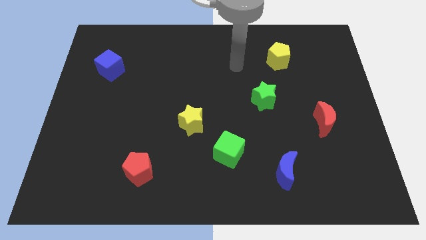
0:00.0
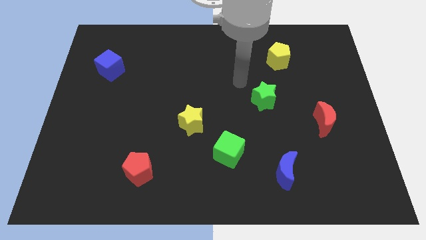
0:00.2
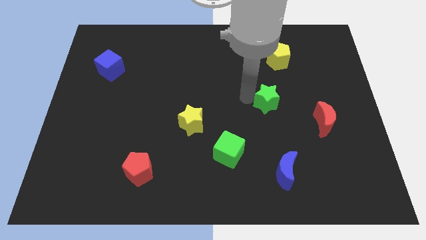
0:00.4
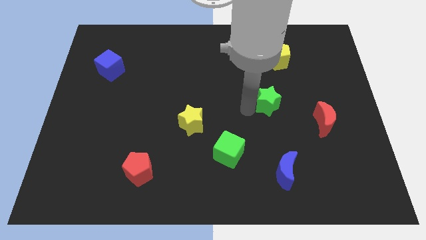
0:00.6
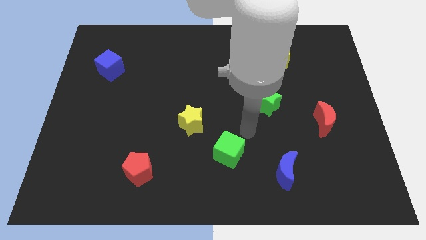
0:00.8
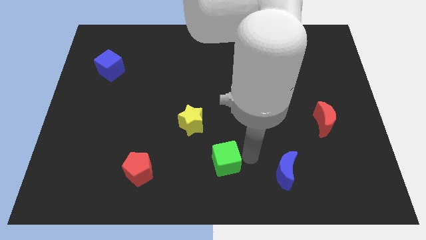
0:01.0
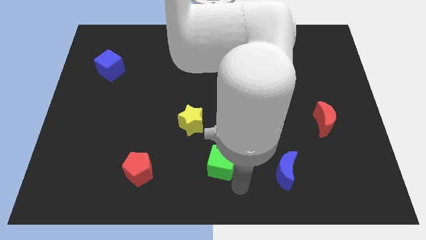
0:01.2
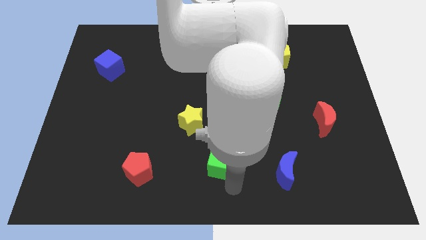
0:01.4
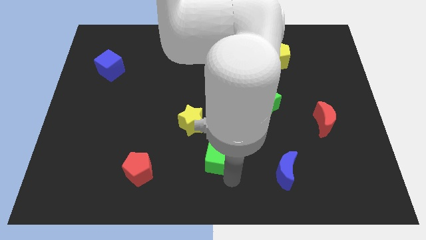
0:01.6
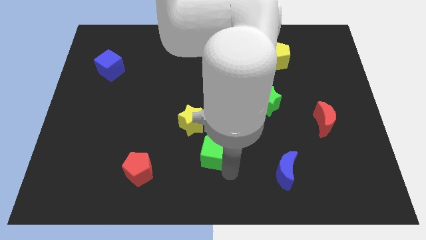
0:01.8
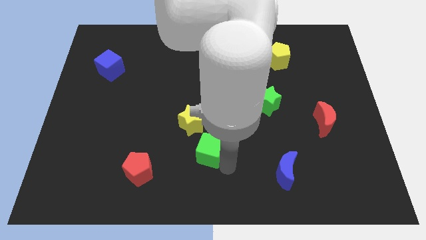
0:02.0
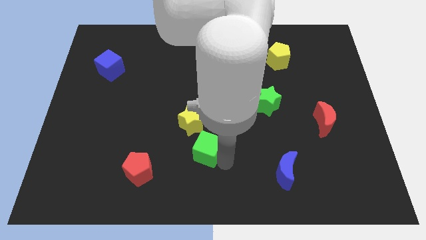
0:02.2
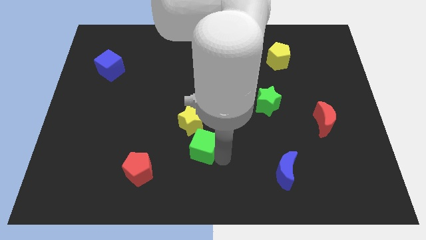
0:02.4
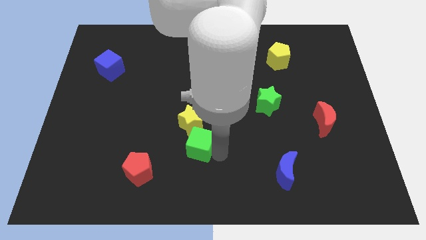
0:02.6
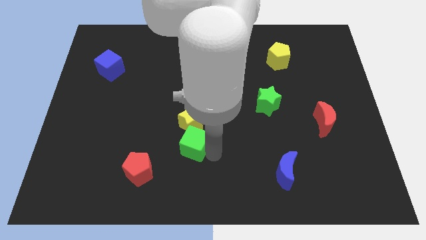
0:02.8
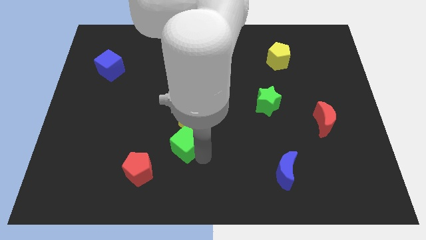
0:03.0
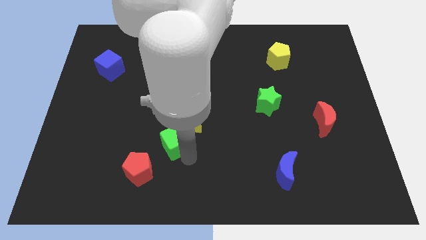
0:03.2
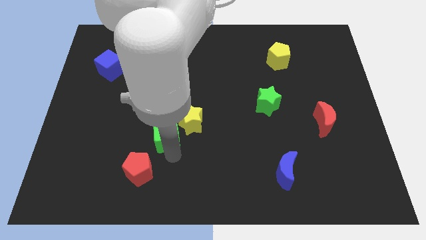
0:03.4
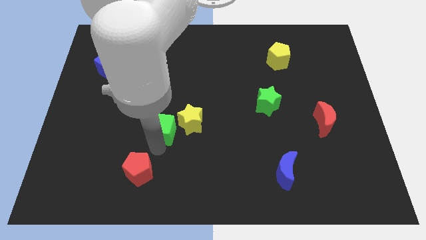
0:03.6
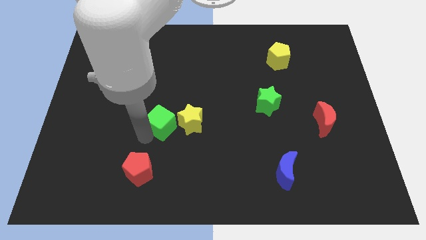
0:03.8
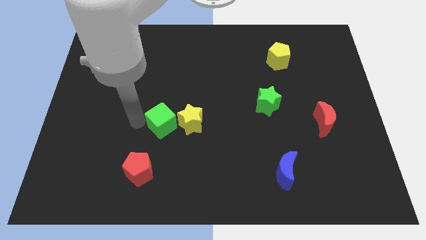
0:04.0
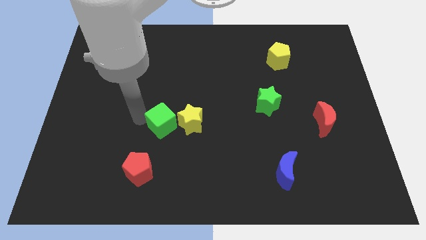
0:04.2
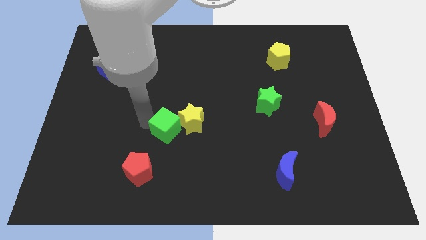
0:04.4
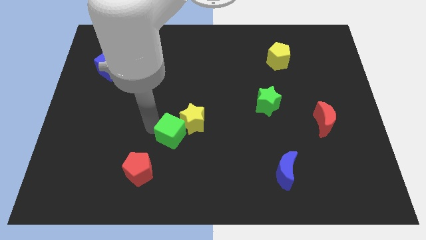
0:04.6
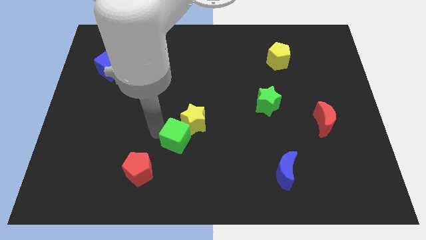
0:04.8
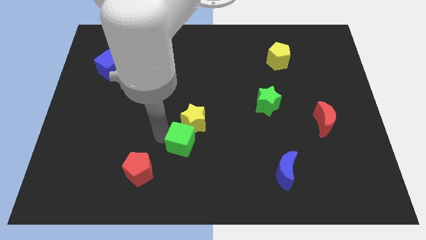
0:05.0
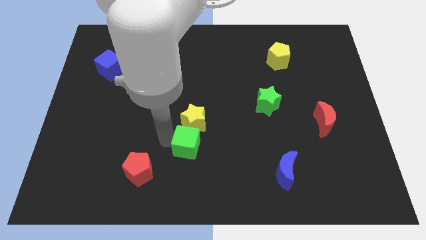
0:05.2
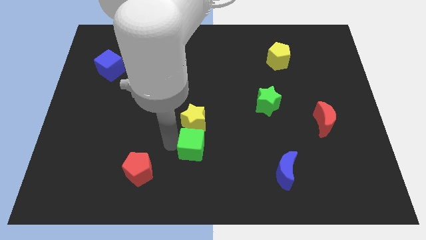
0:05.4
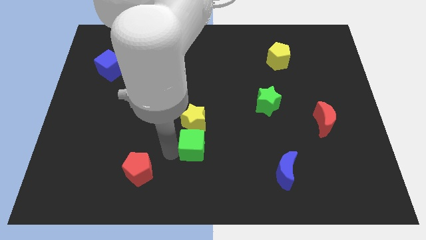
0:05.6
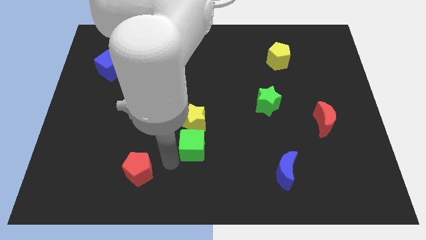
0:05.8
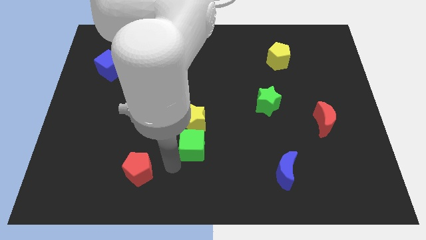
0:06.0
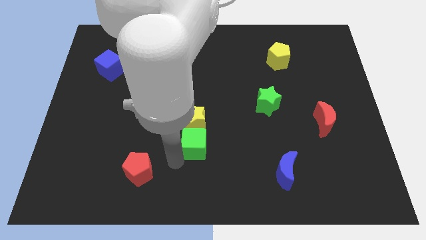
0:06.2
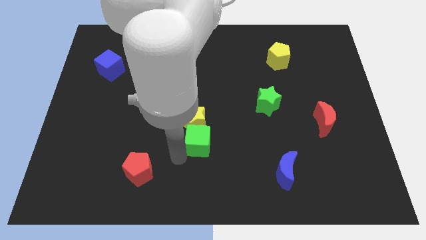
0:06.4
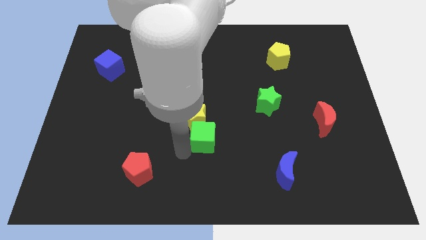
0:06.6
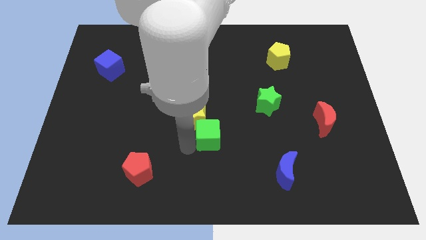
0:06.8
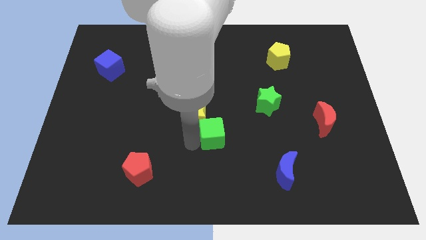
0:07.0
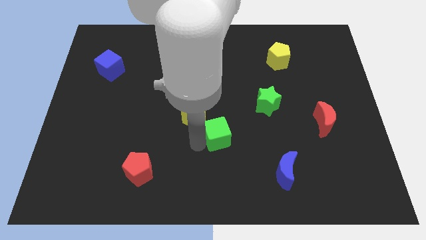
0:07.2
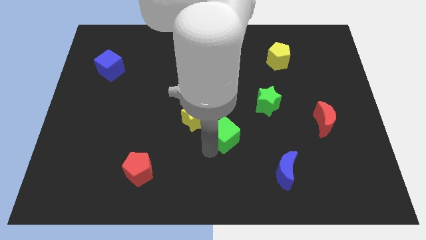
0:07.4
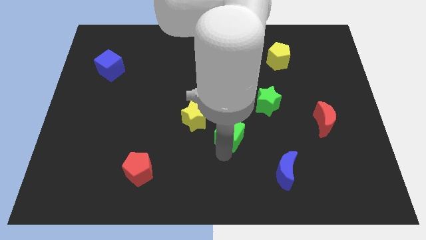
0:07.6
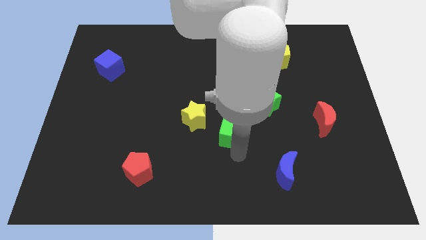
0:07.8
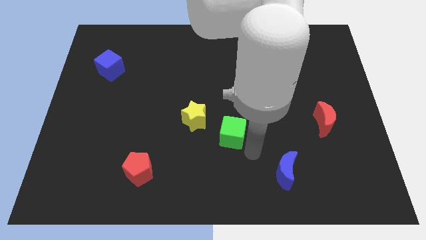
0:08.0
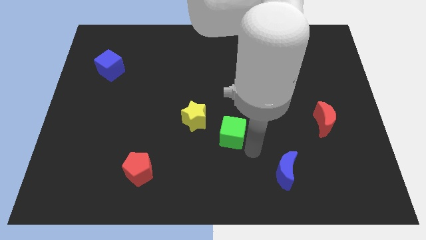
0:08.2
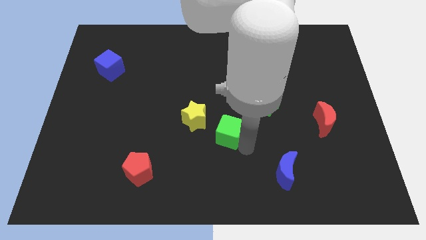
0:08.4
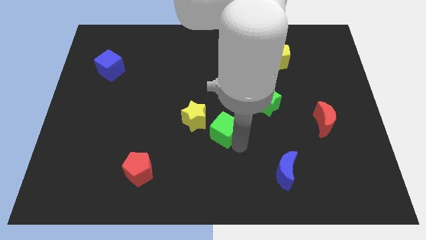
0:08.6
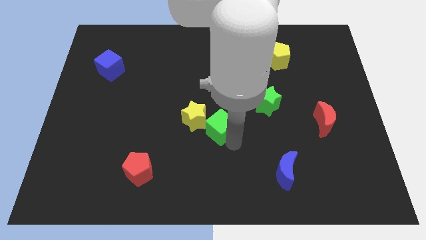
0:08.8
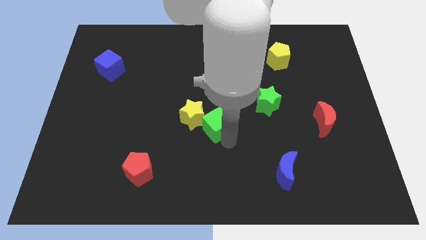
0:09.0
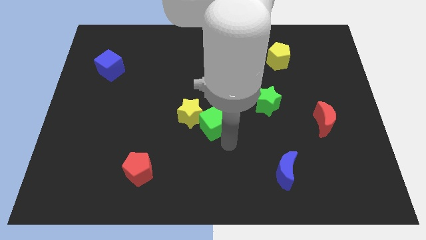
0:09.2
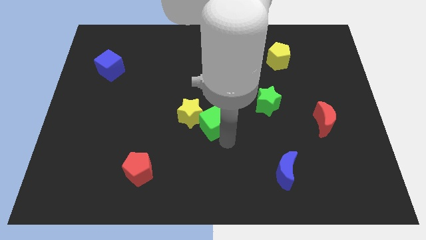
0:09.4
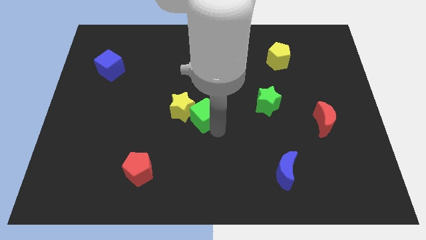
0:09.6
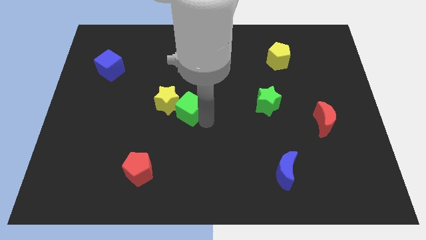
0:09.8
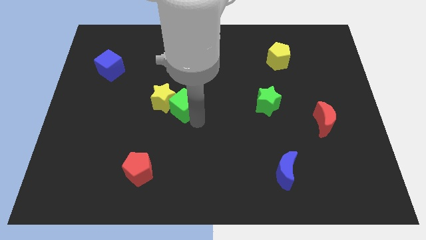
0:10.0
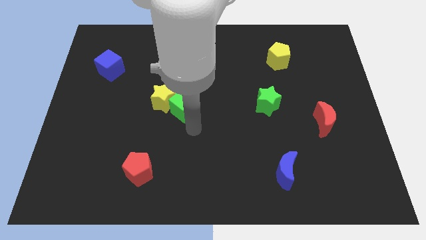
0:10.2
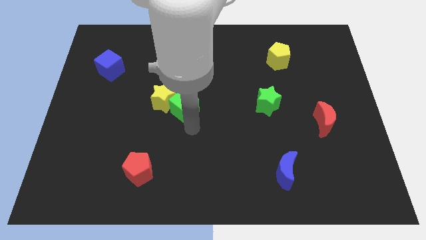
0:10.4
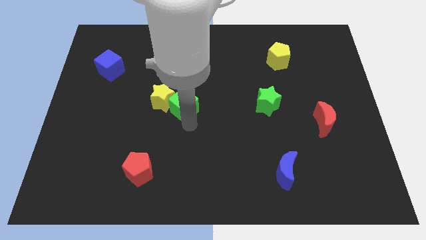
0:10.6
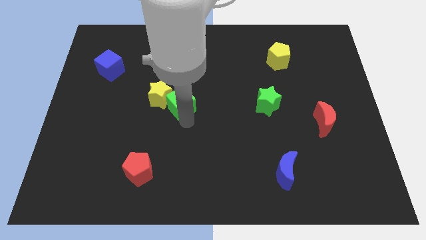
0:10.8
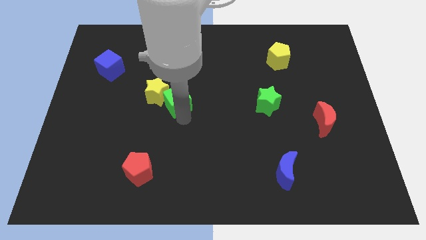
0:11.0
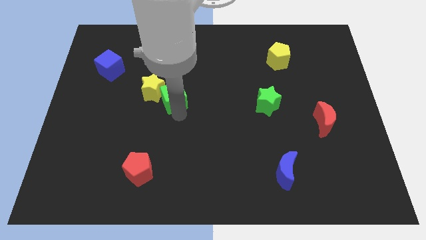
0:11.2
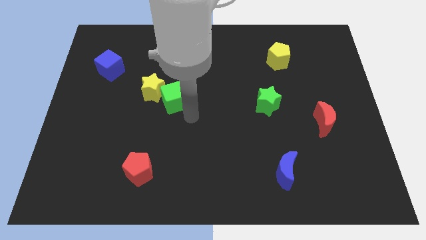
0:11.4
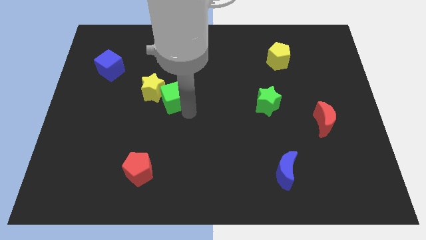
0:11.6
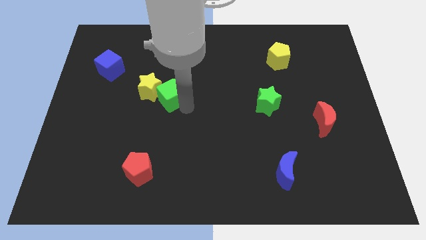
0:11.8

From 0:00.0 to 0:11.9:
push the green cube up and to the left

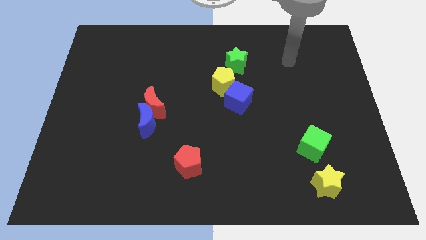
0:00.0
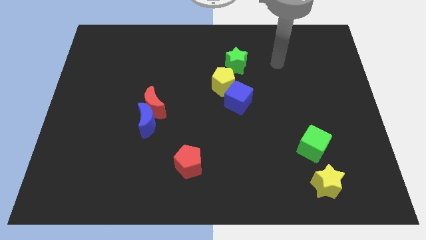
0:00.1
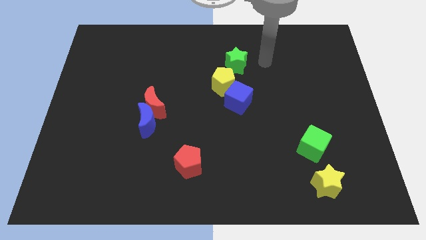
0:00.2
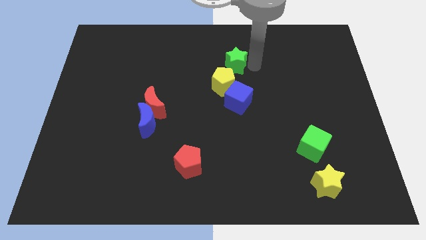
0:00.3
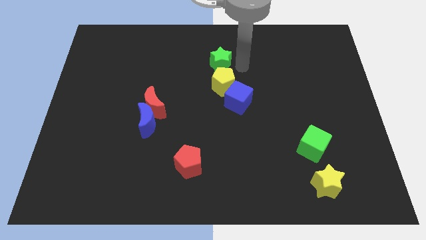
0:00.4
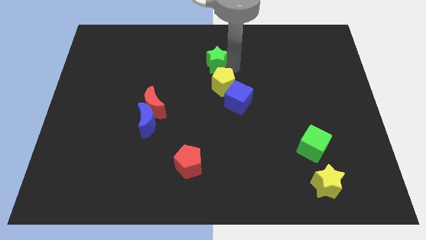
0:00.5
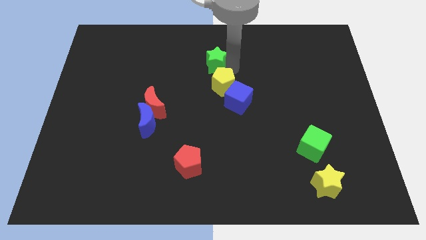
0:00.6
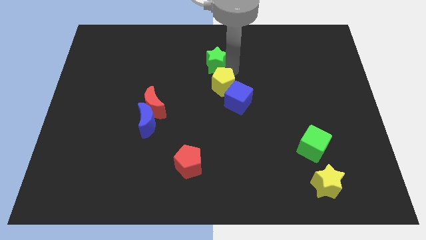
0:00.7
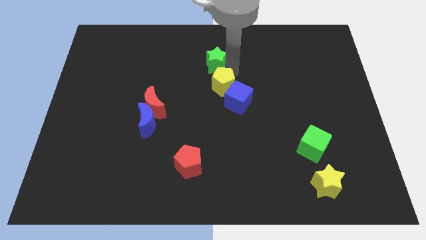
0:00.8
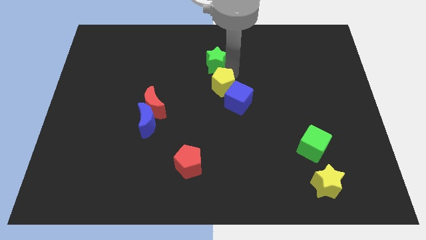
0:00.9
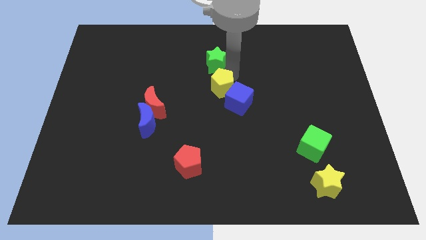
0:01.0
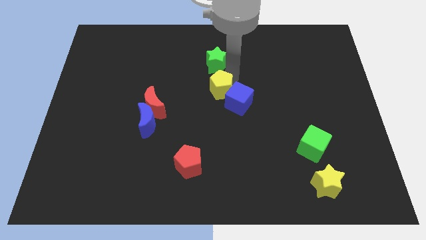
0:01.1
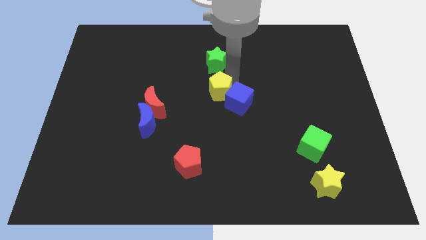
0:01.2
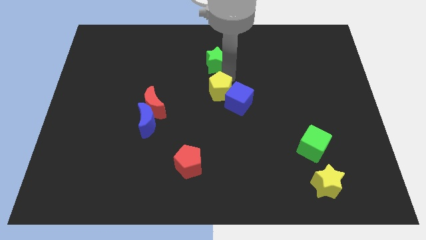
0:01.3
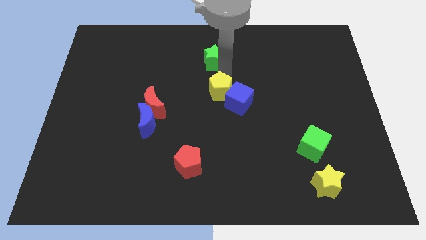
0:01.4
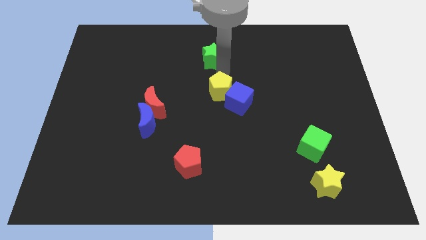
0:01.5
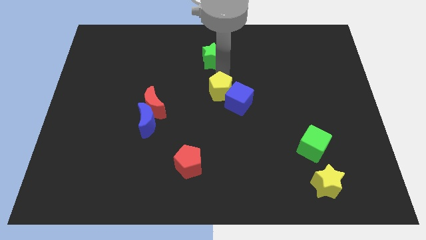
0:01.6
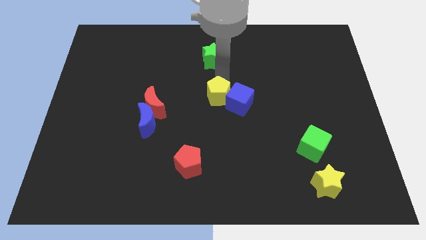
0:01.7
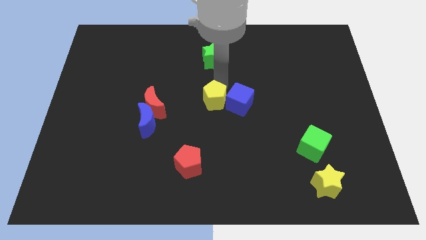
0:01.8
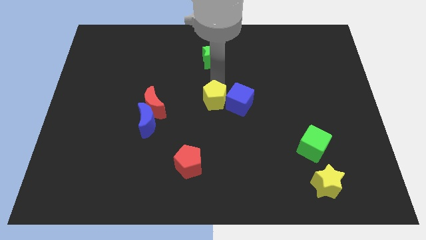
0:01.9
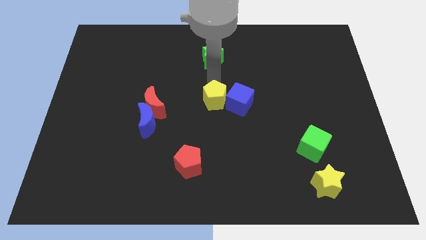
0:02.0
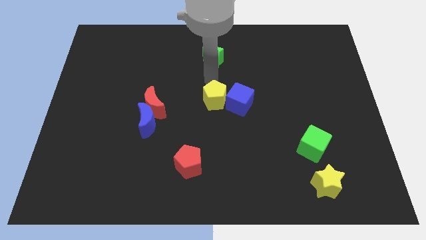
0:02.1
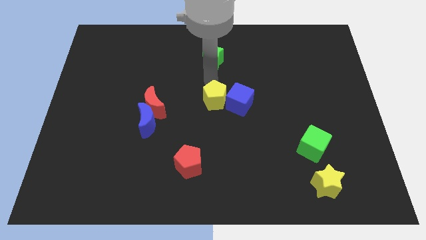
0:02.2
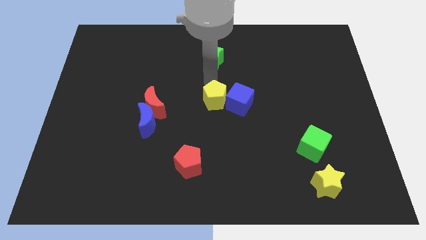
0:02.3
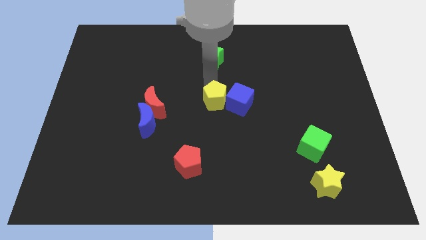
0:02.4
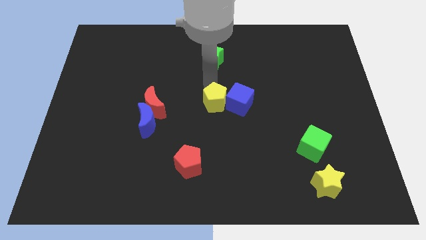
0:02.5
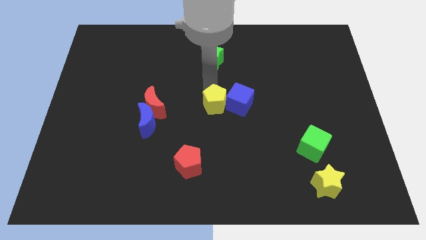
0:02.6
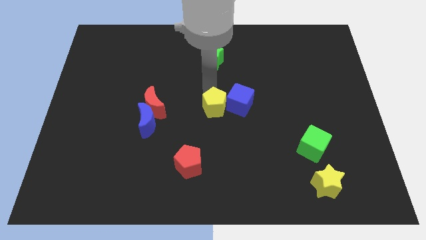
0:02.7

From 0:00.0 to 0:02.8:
move the yellow pentagon downwards somewhat
